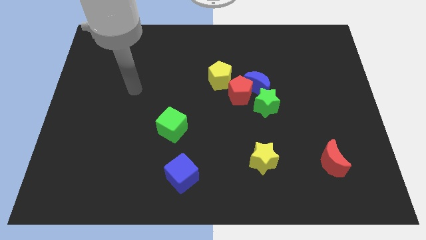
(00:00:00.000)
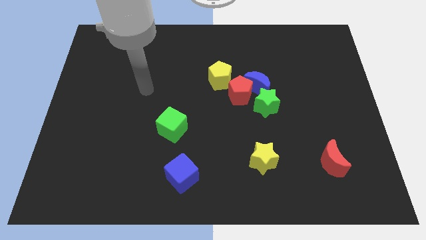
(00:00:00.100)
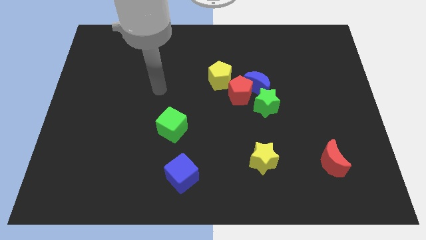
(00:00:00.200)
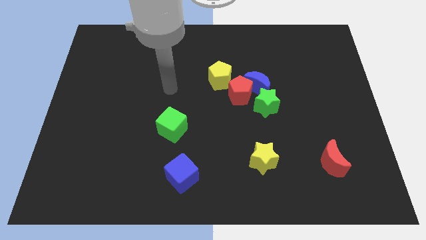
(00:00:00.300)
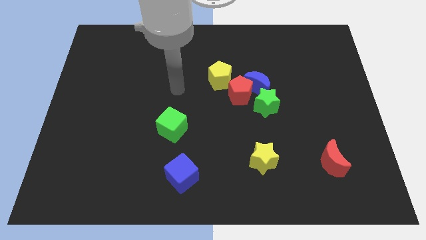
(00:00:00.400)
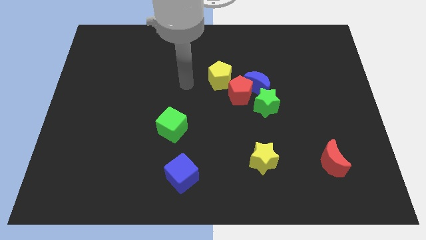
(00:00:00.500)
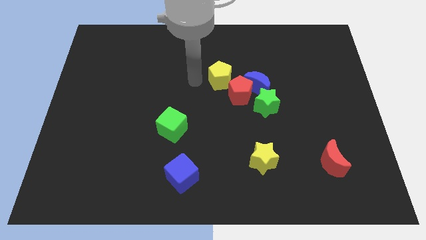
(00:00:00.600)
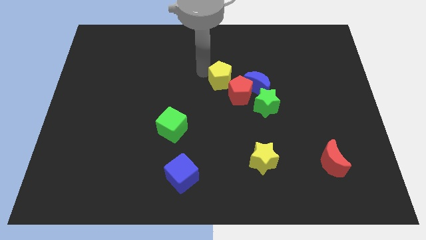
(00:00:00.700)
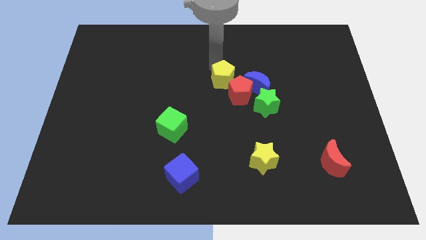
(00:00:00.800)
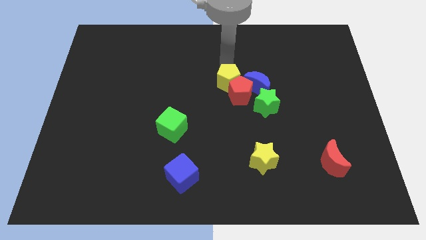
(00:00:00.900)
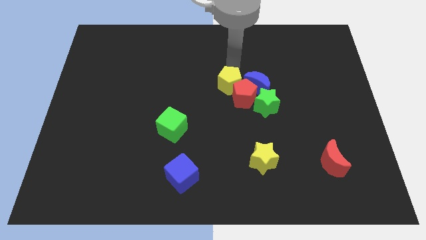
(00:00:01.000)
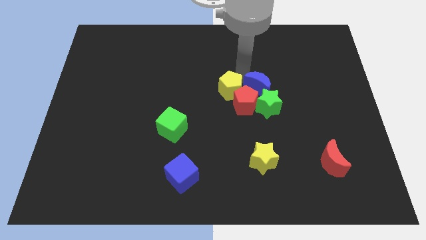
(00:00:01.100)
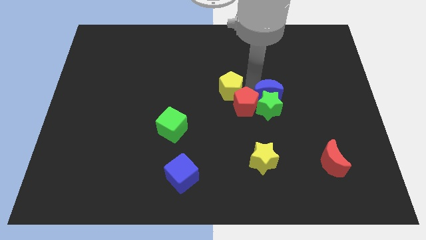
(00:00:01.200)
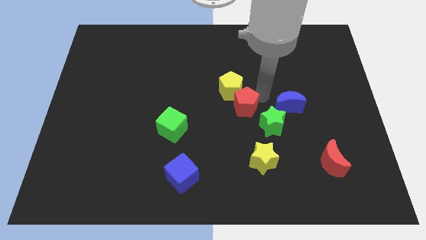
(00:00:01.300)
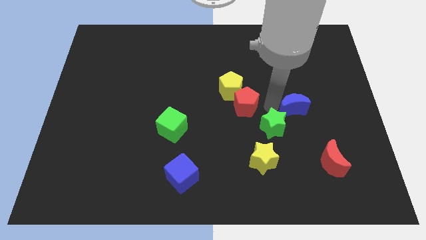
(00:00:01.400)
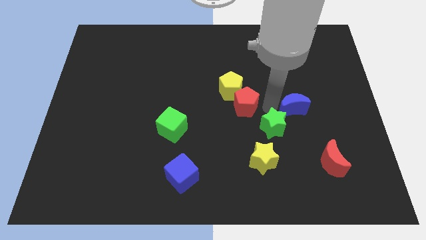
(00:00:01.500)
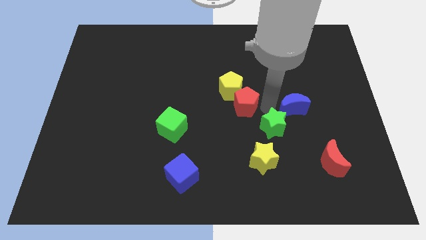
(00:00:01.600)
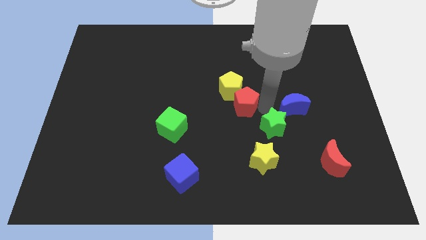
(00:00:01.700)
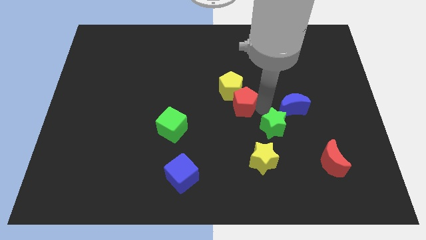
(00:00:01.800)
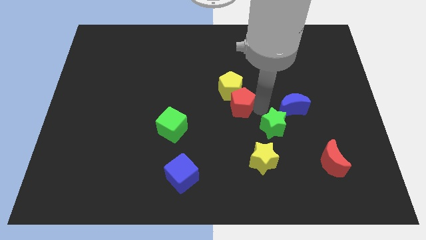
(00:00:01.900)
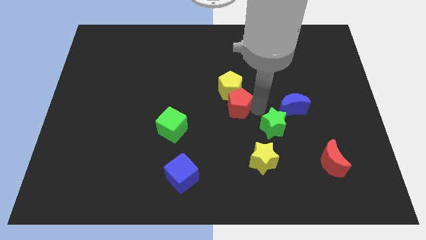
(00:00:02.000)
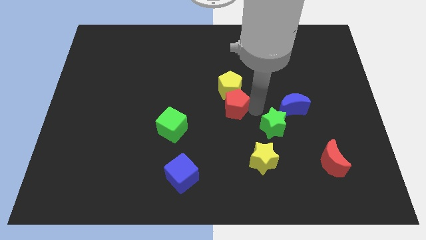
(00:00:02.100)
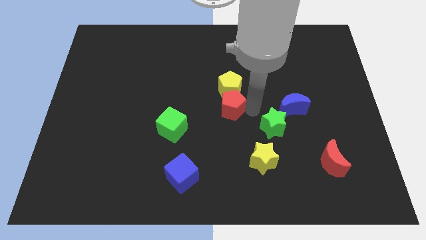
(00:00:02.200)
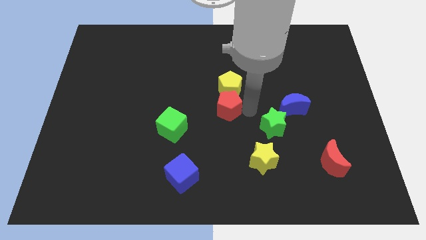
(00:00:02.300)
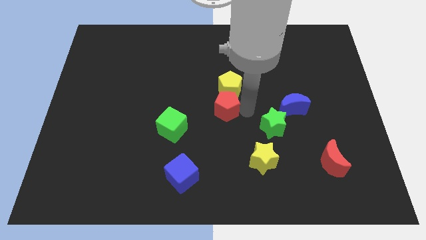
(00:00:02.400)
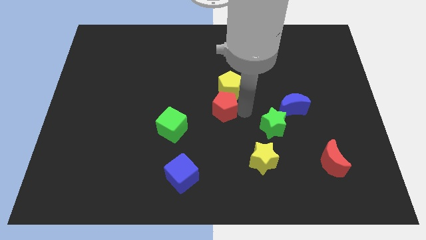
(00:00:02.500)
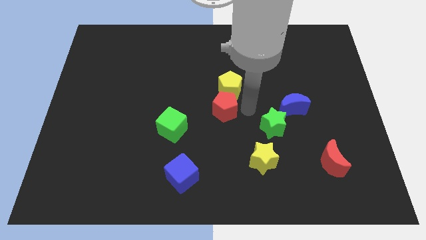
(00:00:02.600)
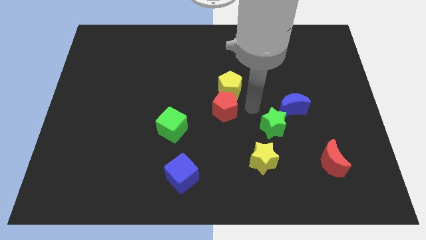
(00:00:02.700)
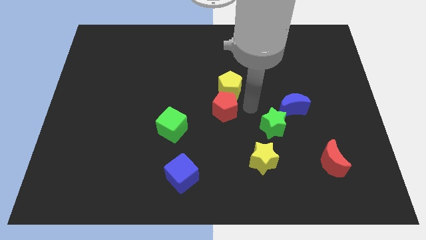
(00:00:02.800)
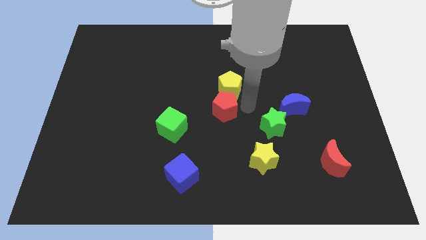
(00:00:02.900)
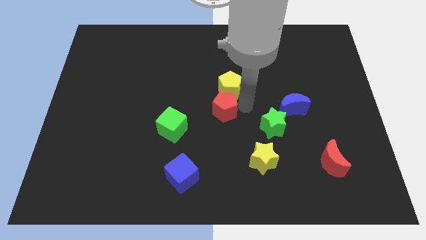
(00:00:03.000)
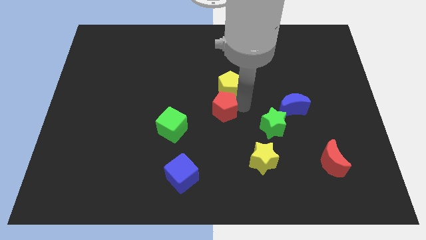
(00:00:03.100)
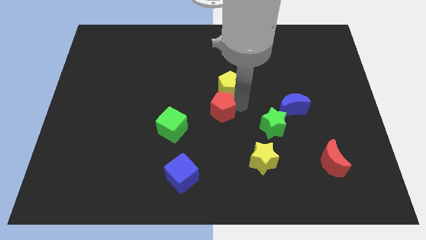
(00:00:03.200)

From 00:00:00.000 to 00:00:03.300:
move the red pentagon away from the group of blocks

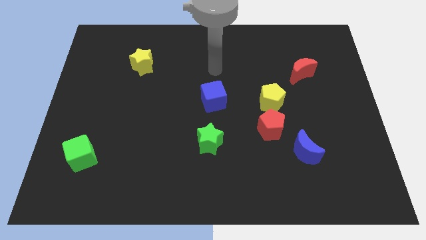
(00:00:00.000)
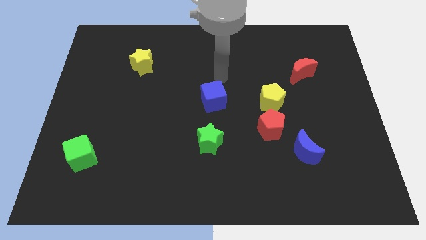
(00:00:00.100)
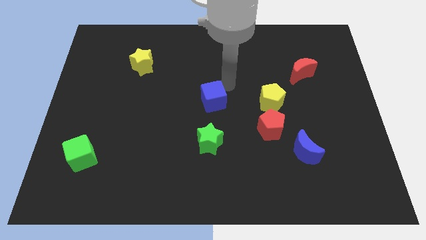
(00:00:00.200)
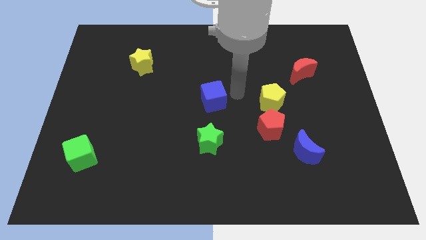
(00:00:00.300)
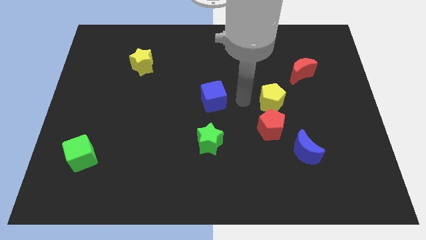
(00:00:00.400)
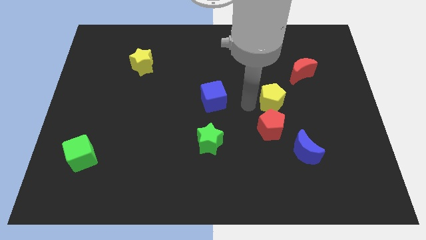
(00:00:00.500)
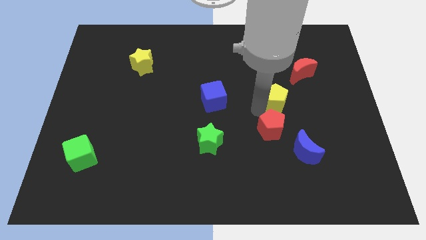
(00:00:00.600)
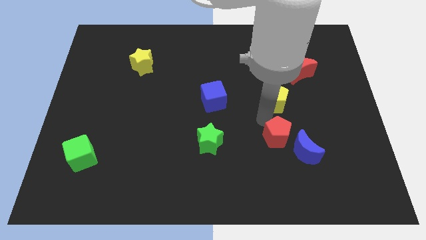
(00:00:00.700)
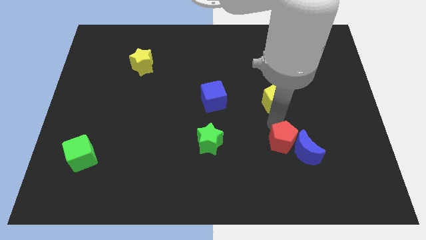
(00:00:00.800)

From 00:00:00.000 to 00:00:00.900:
separate the yellow pentagon from the red pentagon

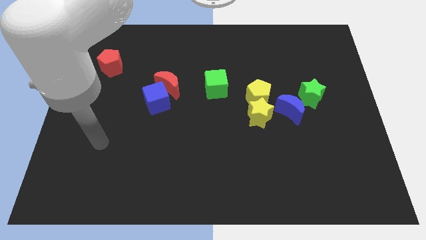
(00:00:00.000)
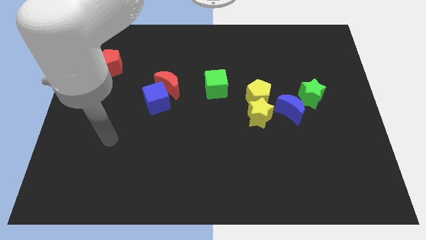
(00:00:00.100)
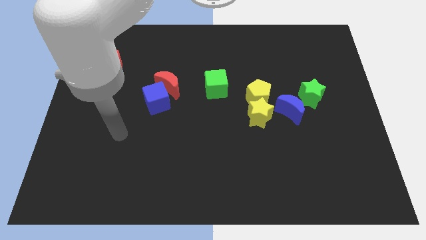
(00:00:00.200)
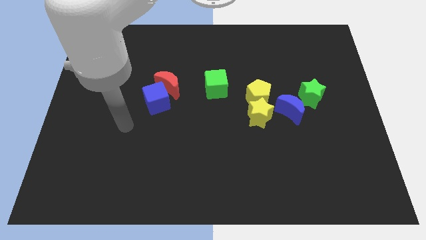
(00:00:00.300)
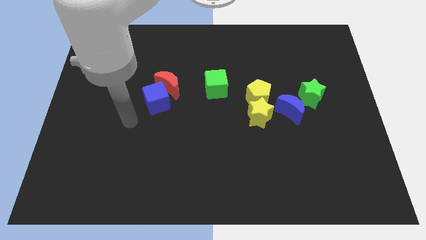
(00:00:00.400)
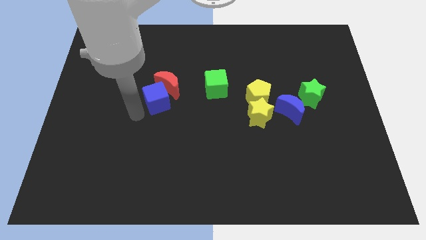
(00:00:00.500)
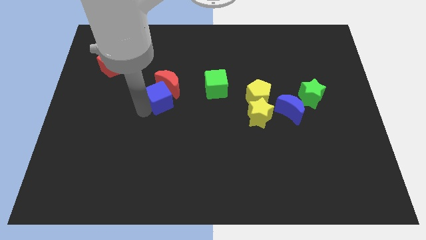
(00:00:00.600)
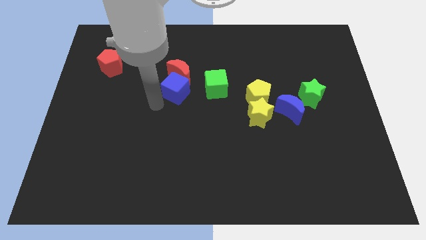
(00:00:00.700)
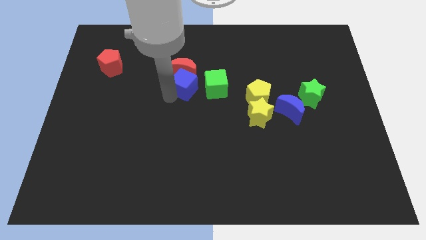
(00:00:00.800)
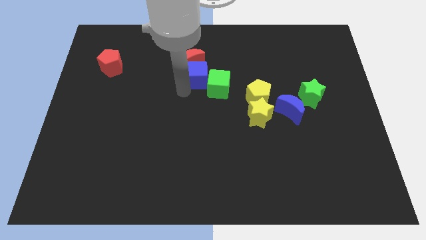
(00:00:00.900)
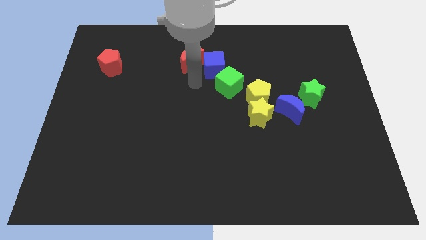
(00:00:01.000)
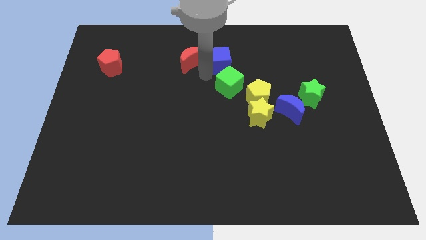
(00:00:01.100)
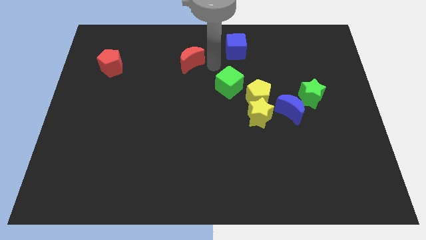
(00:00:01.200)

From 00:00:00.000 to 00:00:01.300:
separate the red moon from the blue cube

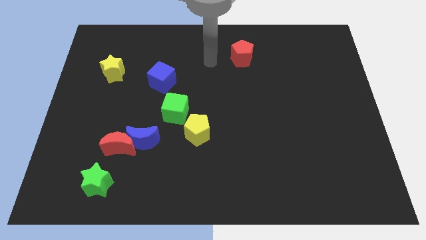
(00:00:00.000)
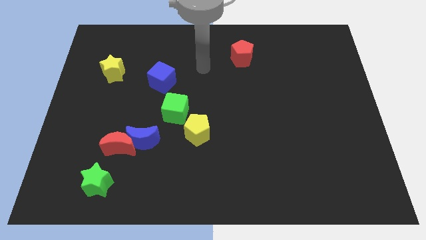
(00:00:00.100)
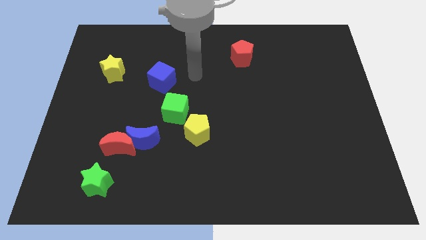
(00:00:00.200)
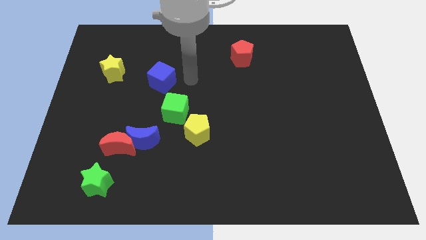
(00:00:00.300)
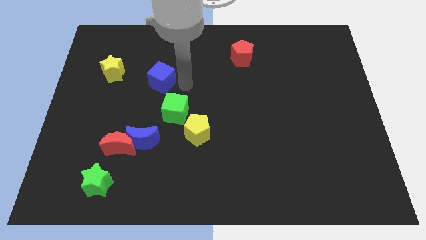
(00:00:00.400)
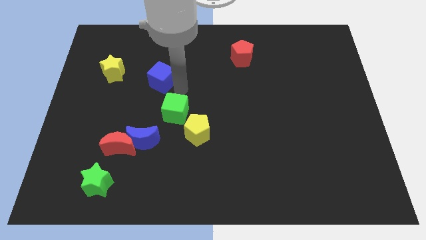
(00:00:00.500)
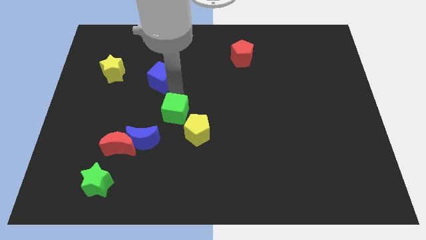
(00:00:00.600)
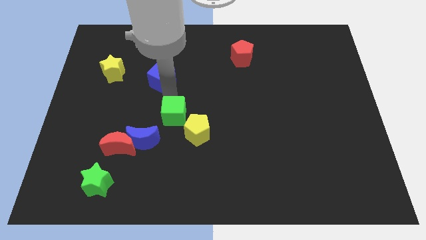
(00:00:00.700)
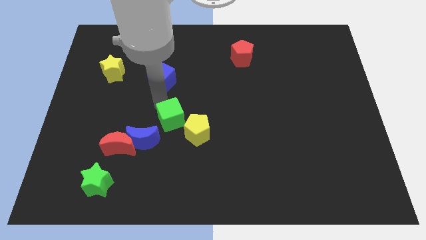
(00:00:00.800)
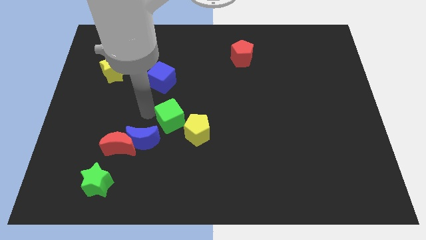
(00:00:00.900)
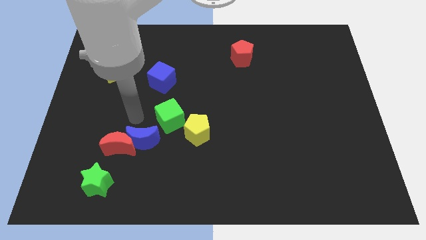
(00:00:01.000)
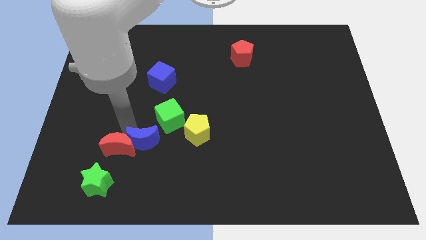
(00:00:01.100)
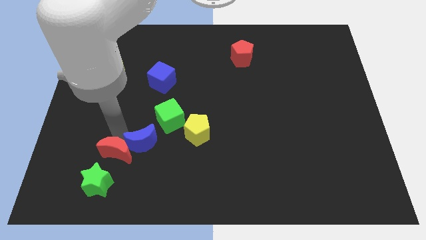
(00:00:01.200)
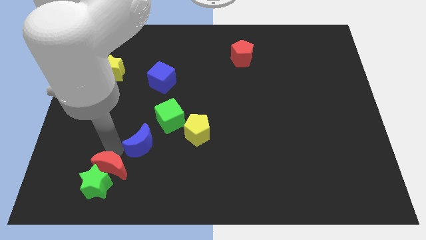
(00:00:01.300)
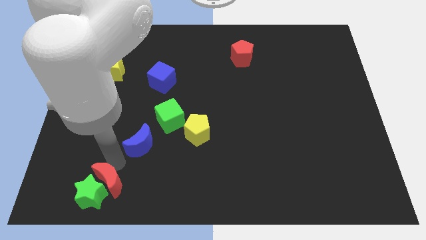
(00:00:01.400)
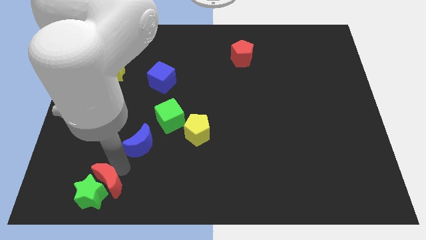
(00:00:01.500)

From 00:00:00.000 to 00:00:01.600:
pull the blue moon apart from the red moon

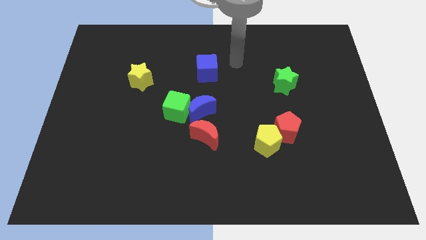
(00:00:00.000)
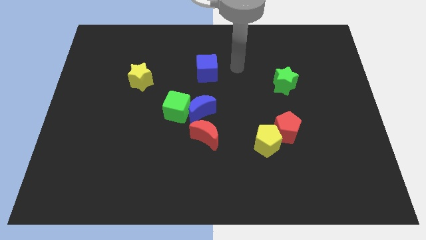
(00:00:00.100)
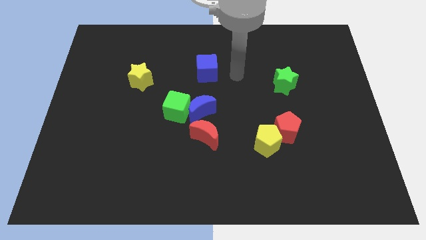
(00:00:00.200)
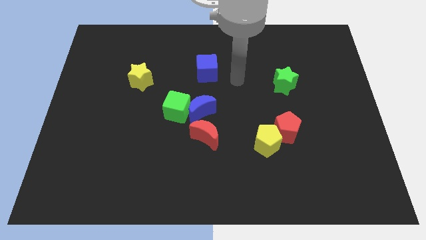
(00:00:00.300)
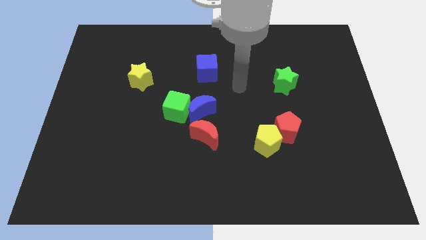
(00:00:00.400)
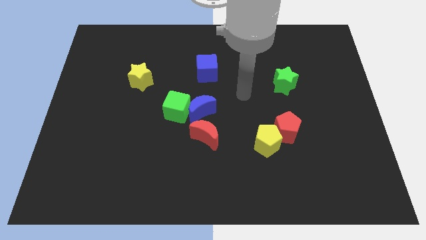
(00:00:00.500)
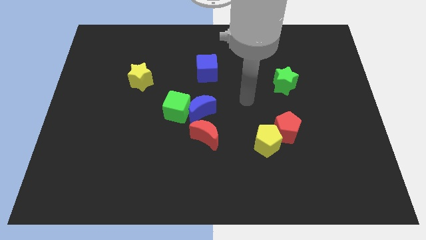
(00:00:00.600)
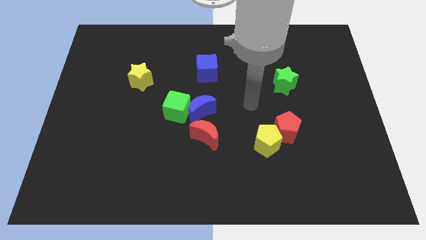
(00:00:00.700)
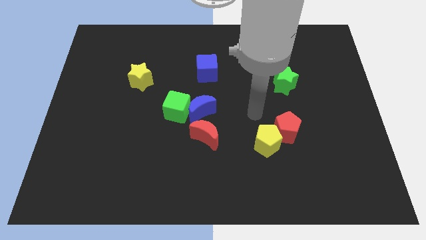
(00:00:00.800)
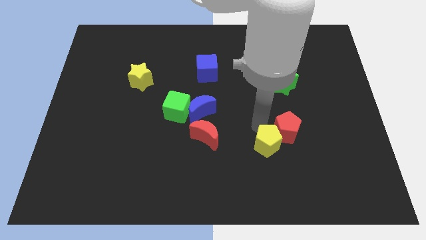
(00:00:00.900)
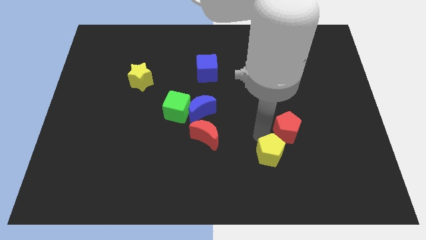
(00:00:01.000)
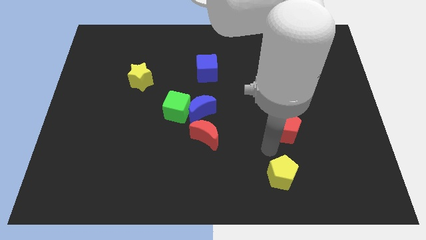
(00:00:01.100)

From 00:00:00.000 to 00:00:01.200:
move the red pentagon away from the yellow pentagon

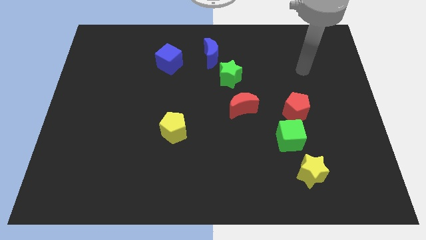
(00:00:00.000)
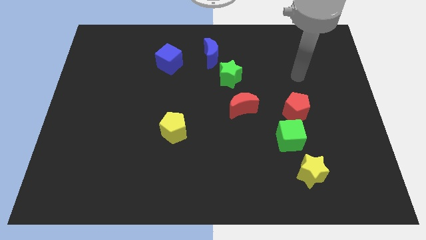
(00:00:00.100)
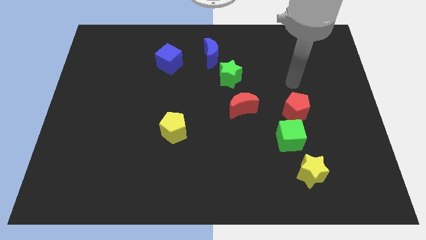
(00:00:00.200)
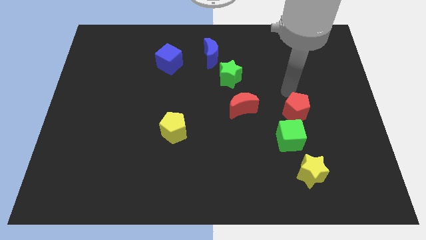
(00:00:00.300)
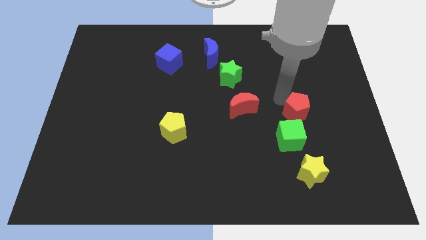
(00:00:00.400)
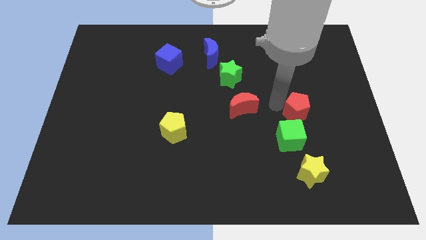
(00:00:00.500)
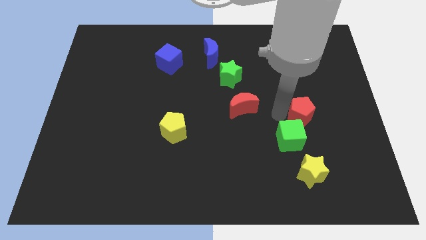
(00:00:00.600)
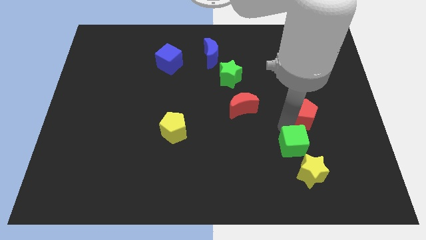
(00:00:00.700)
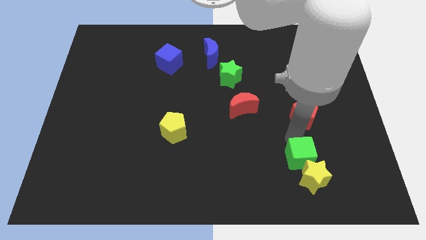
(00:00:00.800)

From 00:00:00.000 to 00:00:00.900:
separate the red pentagon from the green cube
